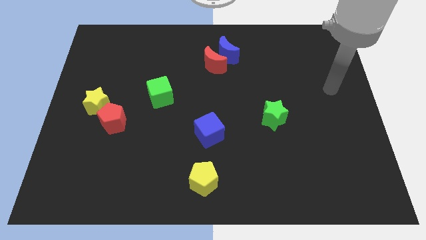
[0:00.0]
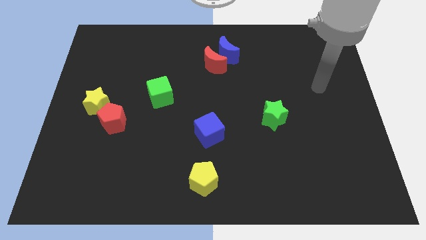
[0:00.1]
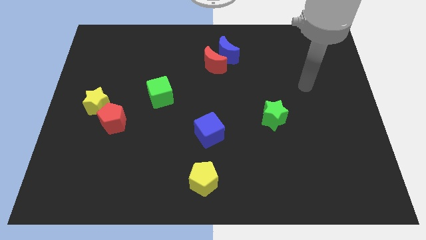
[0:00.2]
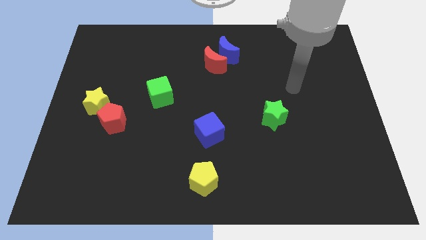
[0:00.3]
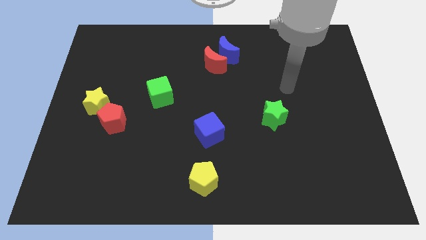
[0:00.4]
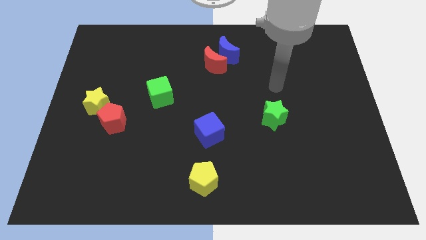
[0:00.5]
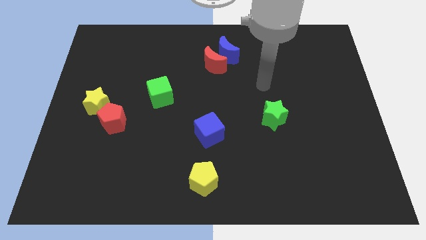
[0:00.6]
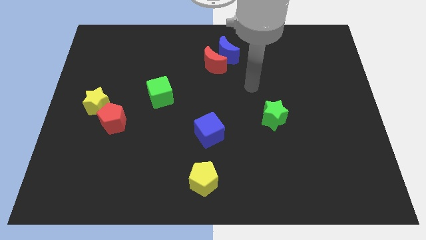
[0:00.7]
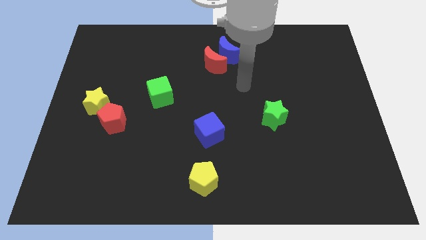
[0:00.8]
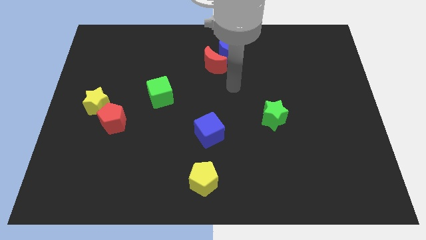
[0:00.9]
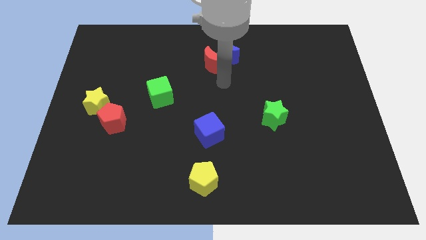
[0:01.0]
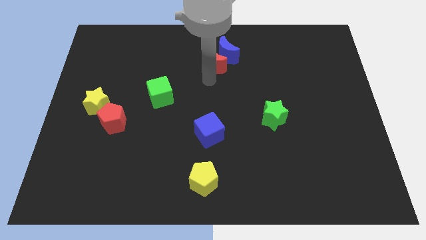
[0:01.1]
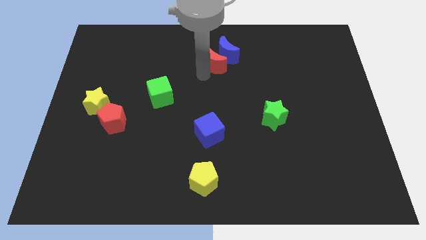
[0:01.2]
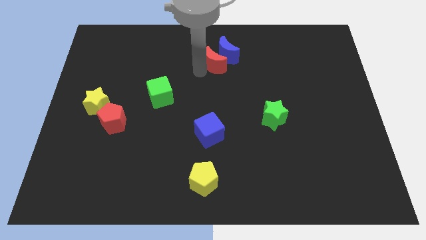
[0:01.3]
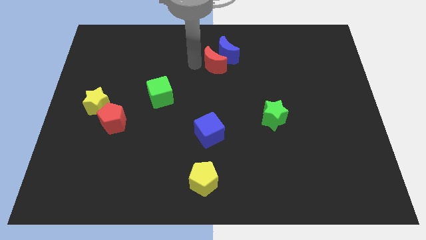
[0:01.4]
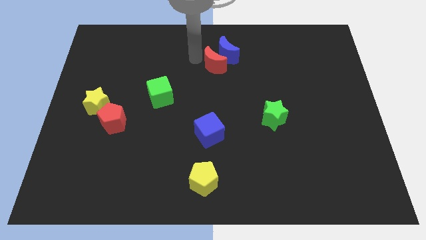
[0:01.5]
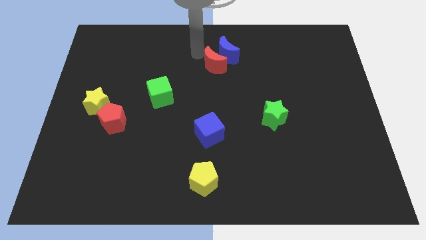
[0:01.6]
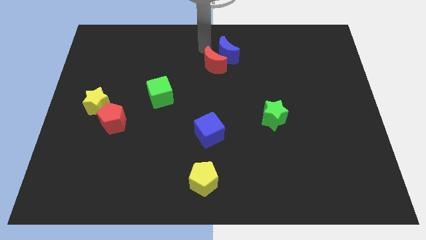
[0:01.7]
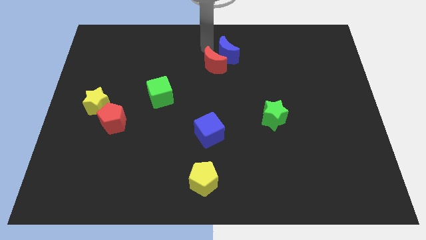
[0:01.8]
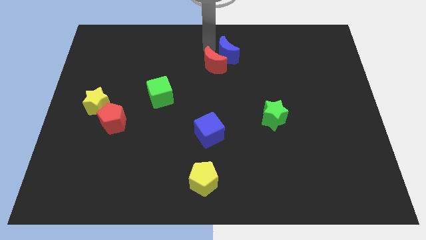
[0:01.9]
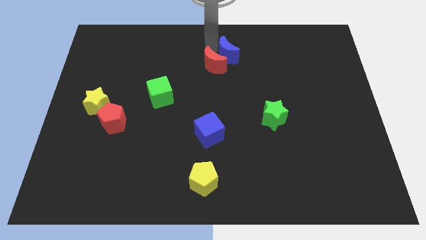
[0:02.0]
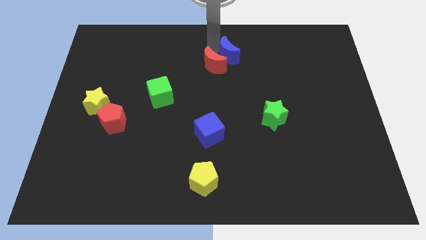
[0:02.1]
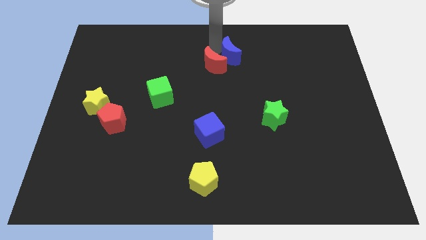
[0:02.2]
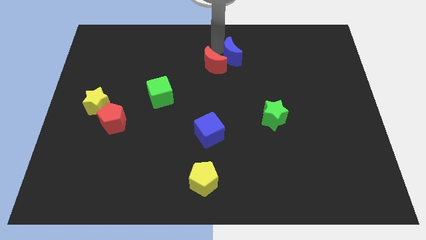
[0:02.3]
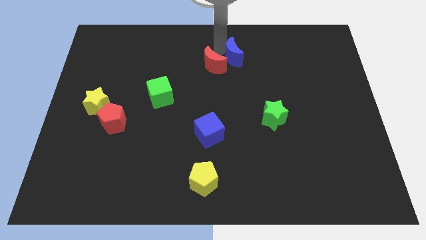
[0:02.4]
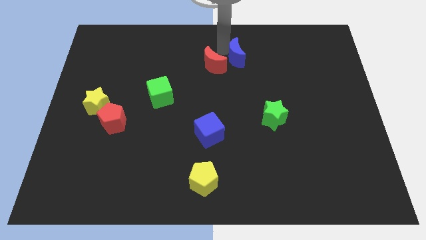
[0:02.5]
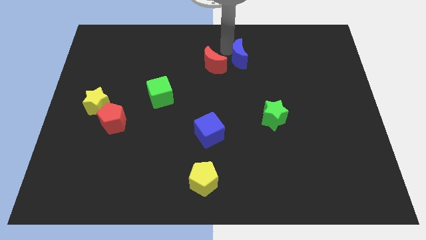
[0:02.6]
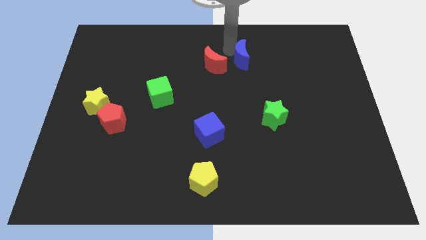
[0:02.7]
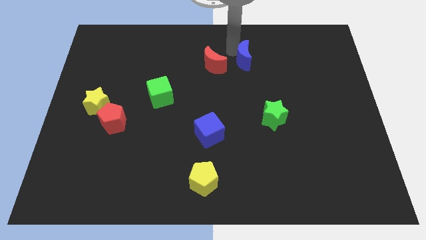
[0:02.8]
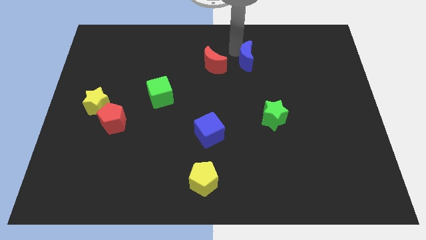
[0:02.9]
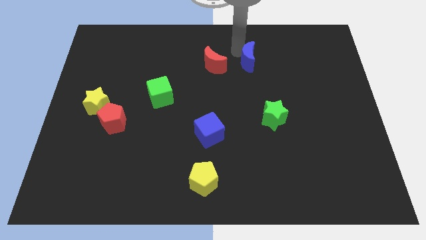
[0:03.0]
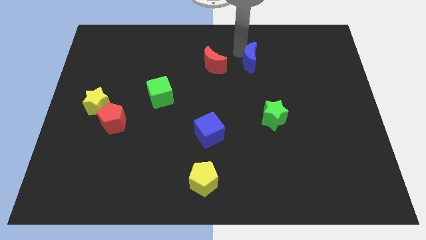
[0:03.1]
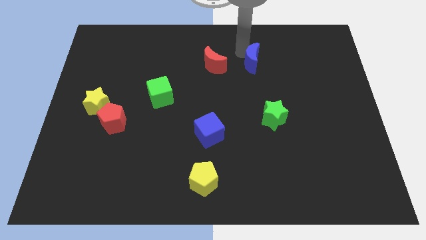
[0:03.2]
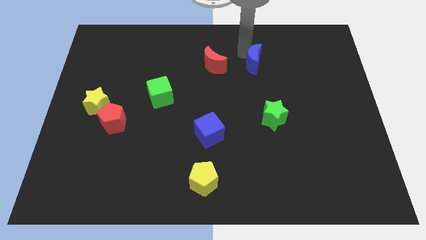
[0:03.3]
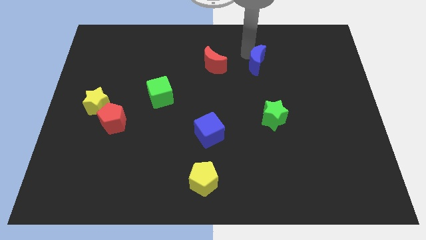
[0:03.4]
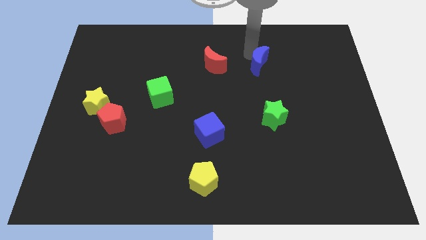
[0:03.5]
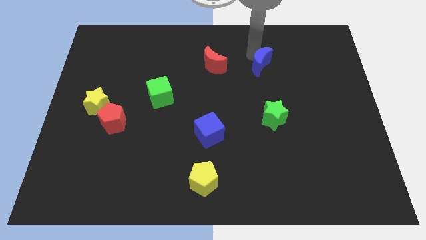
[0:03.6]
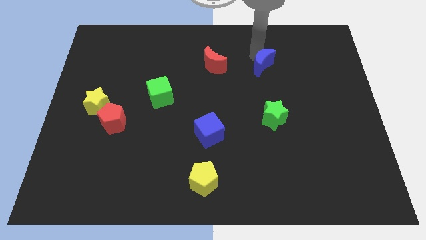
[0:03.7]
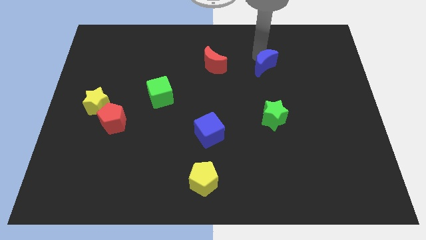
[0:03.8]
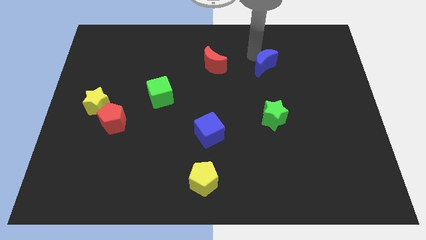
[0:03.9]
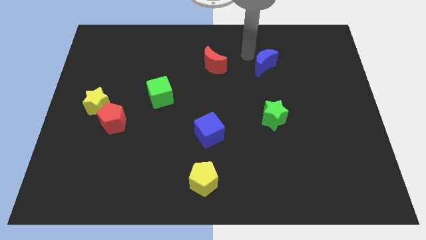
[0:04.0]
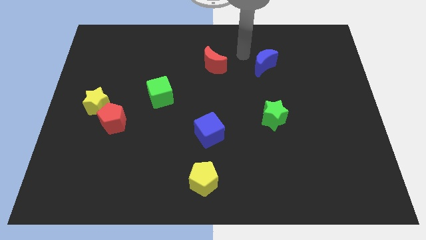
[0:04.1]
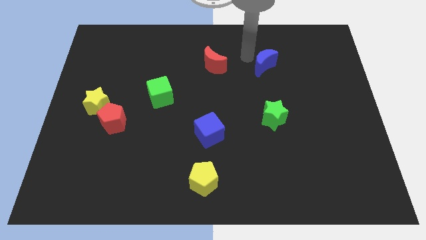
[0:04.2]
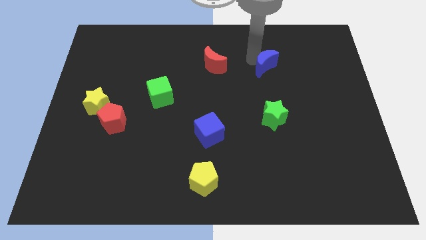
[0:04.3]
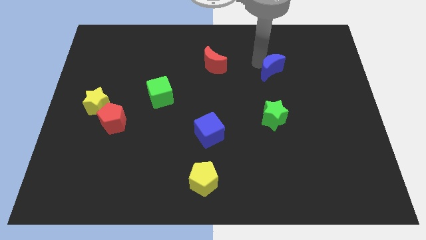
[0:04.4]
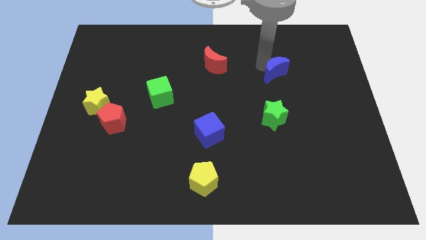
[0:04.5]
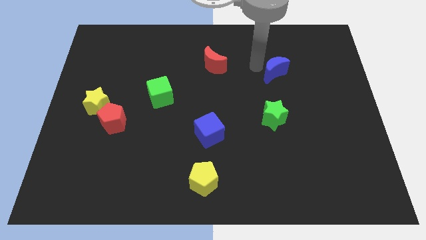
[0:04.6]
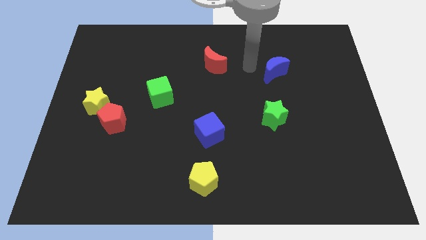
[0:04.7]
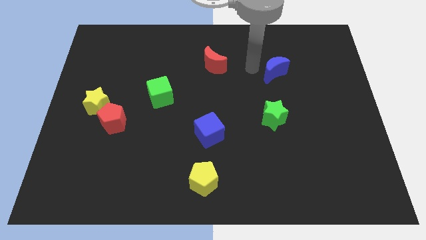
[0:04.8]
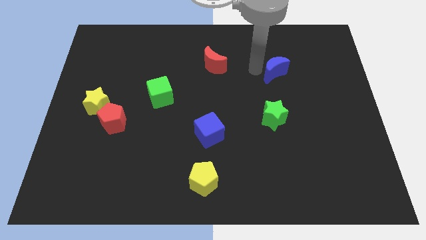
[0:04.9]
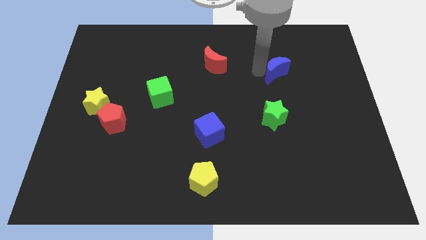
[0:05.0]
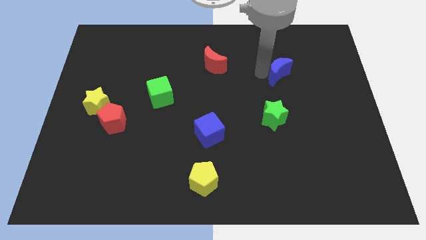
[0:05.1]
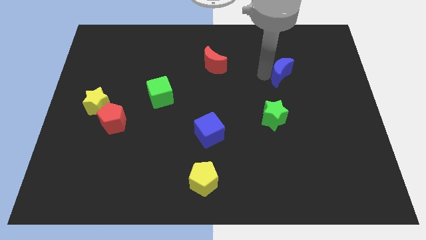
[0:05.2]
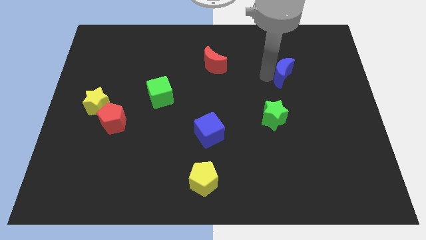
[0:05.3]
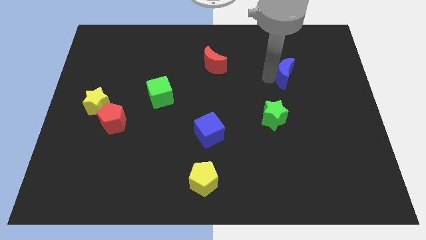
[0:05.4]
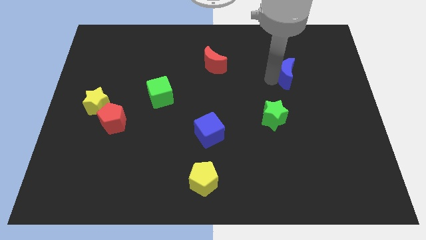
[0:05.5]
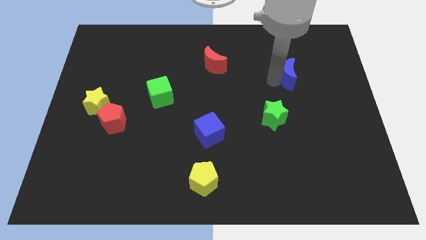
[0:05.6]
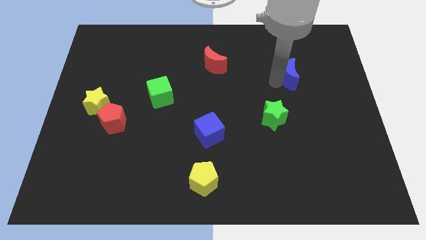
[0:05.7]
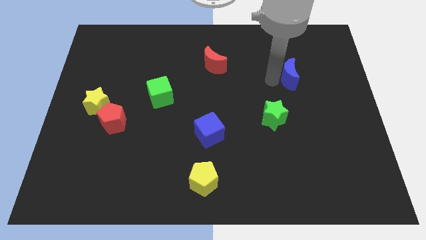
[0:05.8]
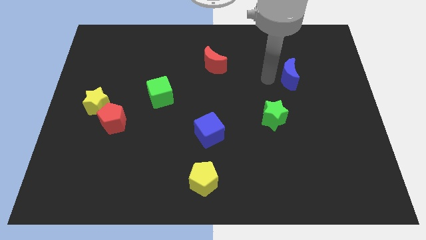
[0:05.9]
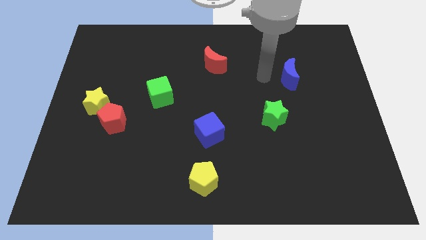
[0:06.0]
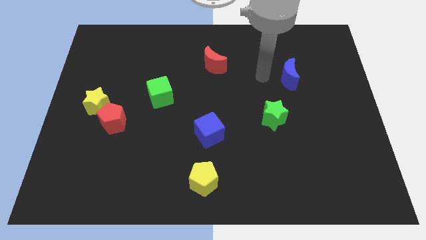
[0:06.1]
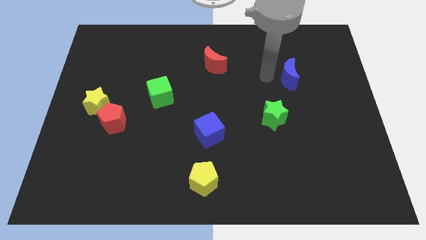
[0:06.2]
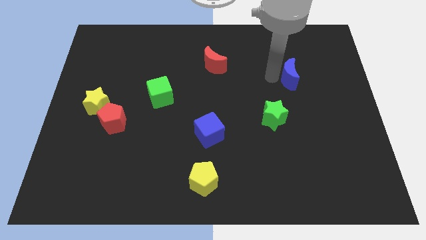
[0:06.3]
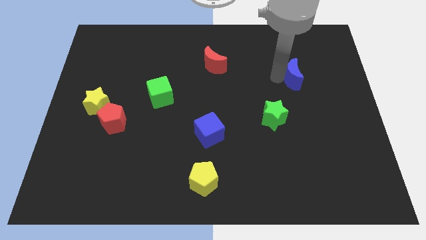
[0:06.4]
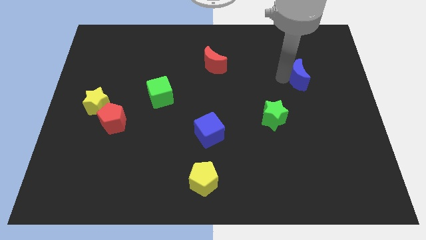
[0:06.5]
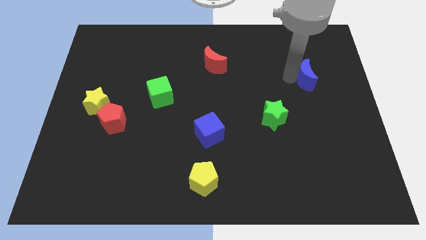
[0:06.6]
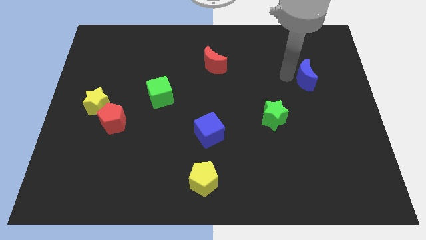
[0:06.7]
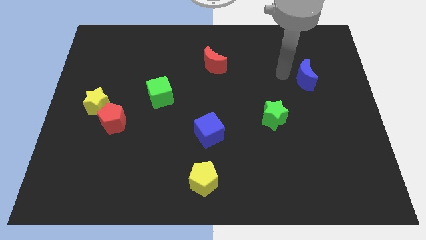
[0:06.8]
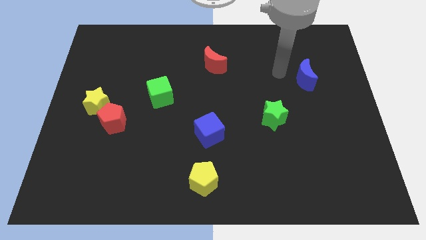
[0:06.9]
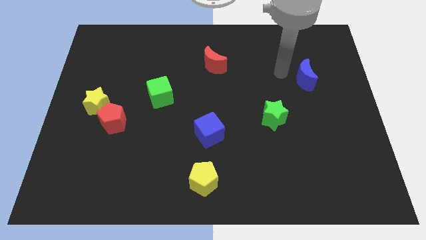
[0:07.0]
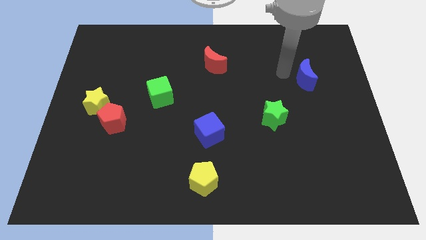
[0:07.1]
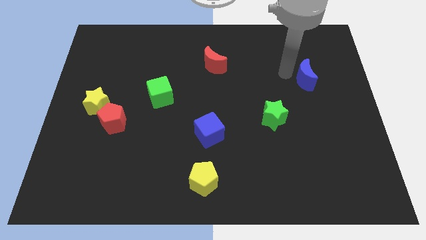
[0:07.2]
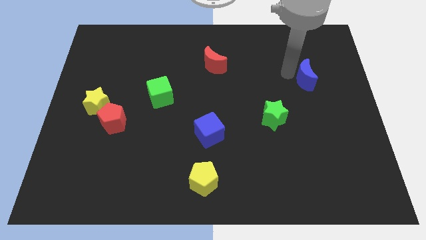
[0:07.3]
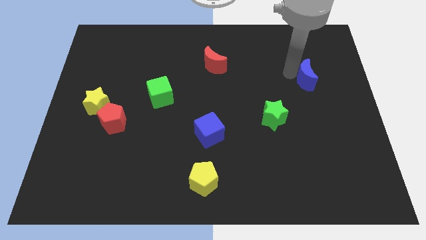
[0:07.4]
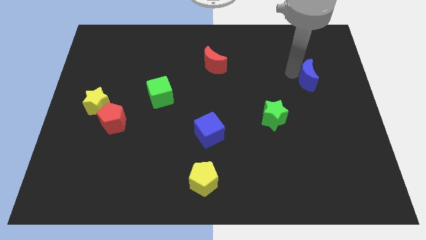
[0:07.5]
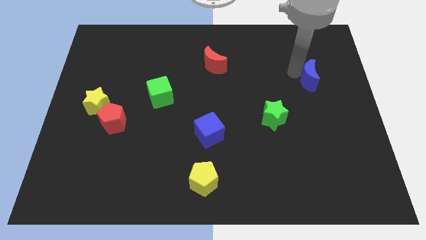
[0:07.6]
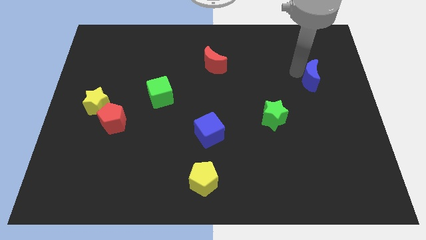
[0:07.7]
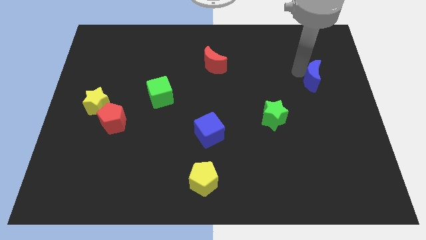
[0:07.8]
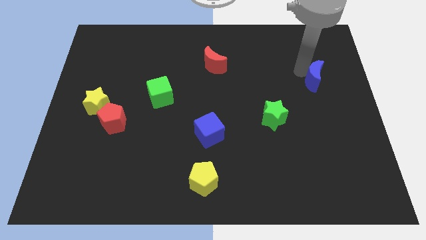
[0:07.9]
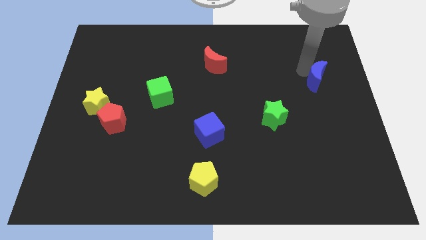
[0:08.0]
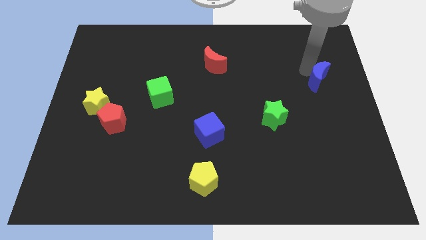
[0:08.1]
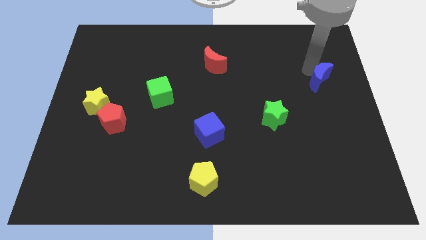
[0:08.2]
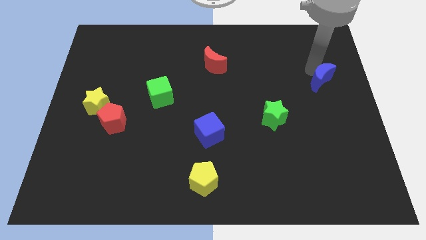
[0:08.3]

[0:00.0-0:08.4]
slide the blue moon to the center right
